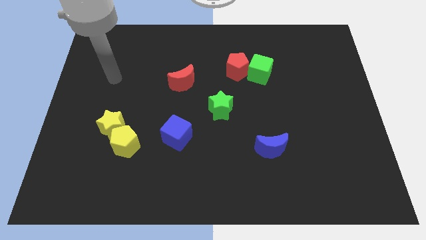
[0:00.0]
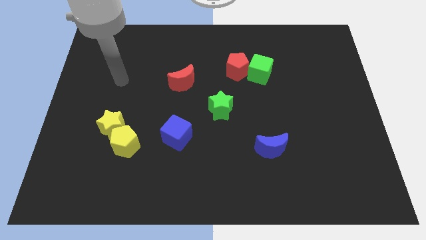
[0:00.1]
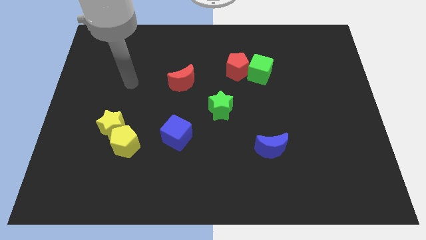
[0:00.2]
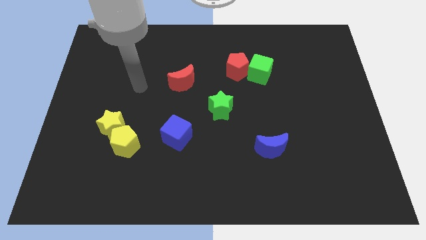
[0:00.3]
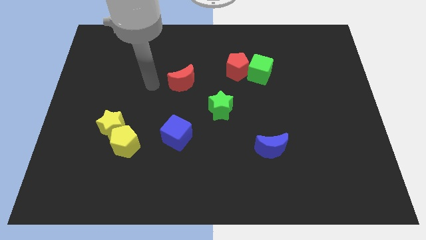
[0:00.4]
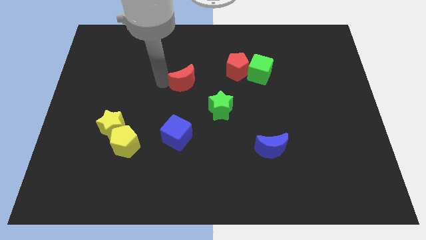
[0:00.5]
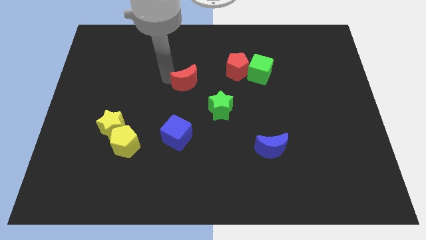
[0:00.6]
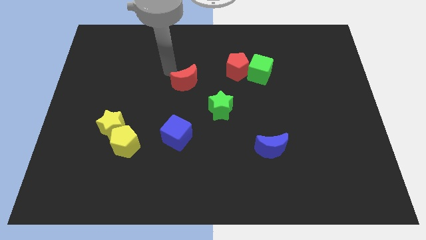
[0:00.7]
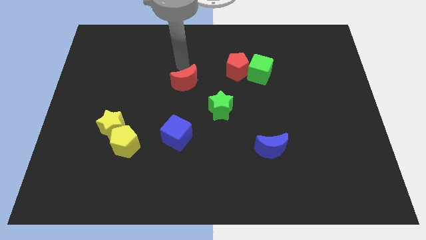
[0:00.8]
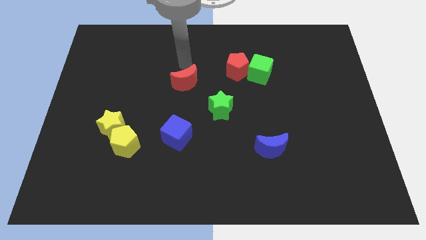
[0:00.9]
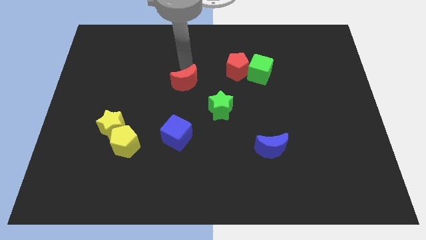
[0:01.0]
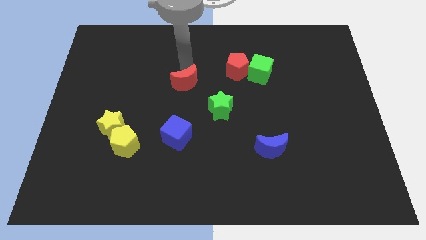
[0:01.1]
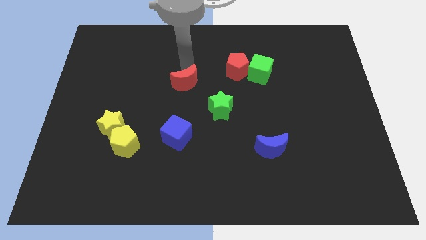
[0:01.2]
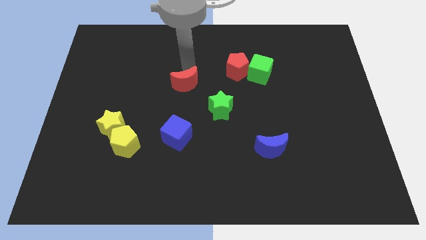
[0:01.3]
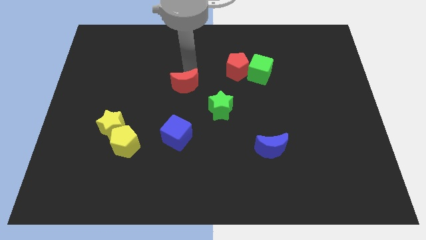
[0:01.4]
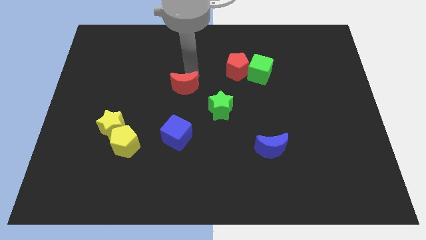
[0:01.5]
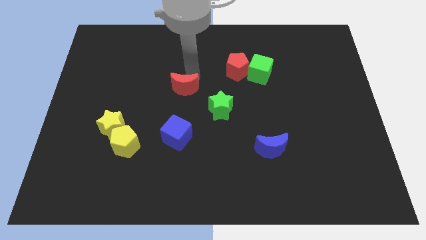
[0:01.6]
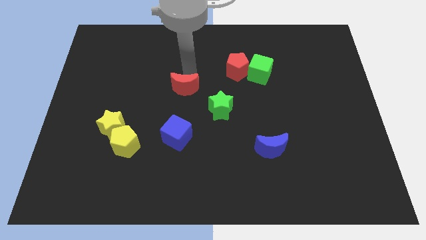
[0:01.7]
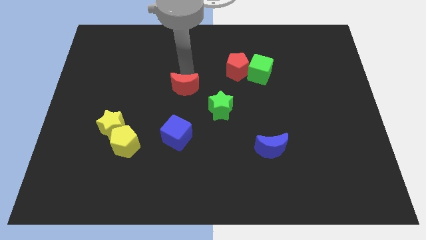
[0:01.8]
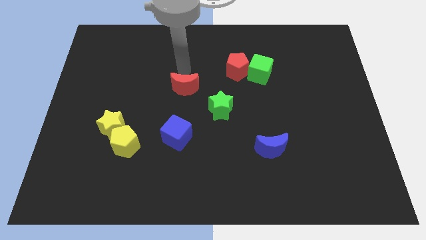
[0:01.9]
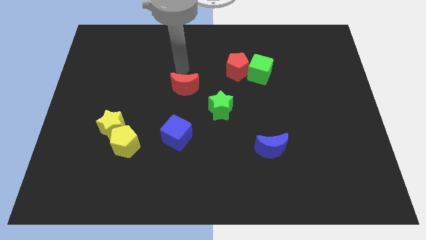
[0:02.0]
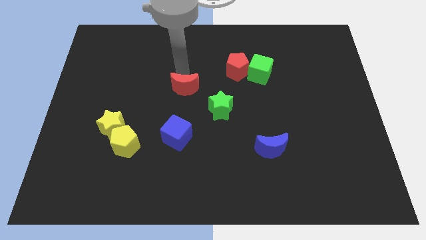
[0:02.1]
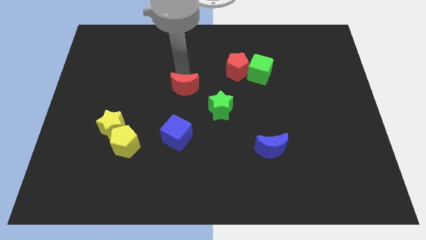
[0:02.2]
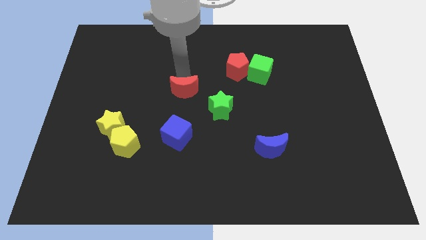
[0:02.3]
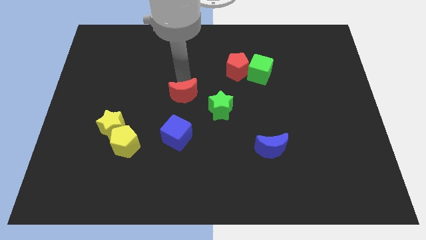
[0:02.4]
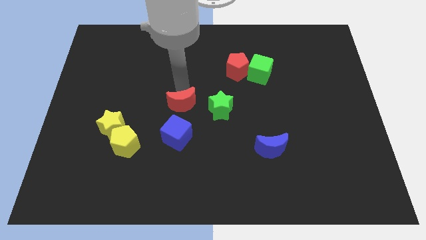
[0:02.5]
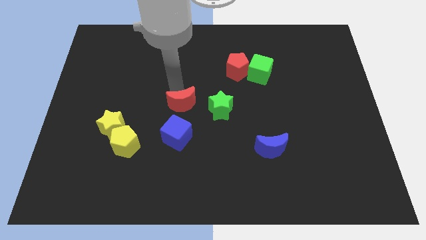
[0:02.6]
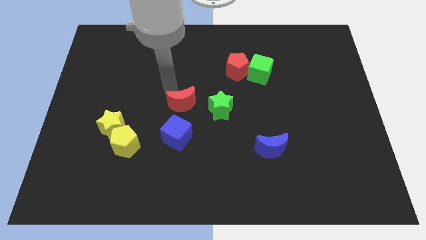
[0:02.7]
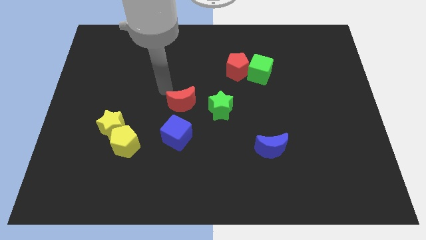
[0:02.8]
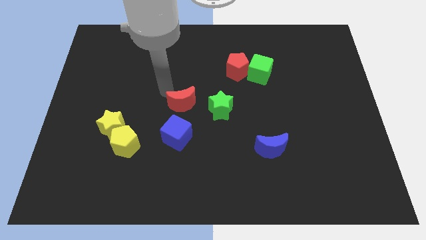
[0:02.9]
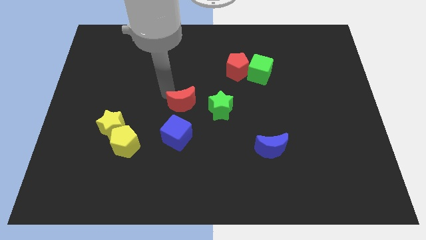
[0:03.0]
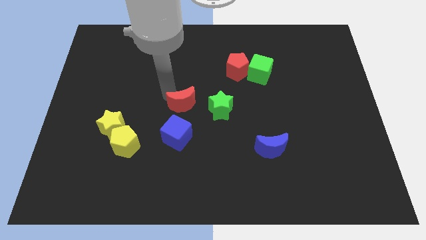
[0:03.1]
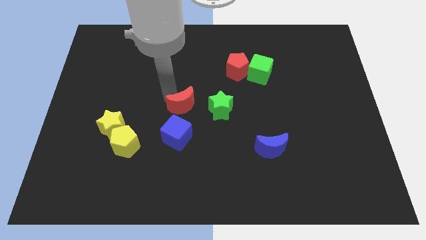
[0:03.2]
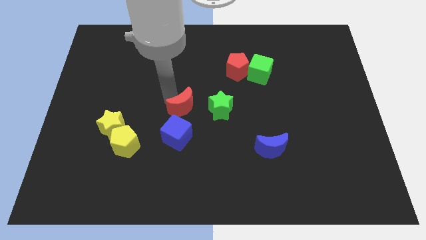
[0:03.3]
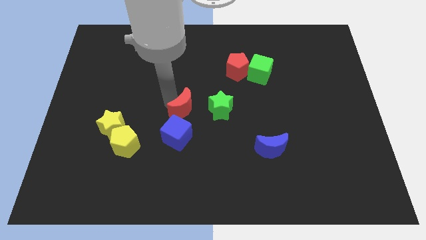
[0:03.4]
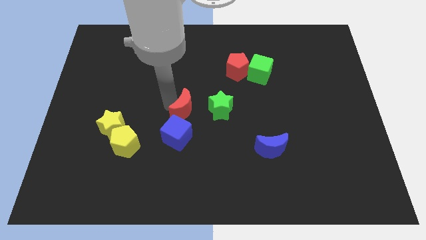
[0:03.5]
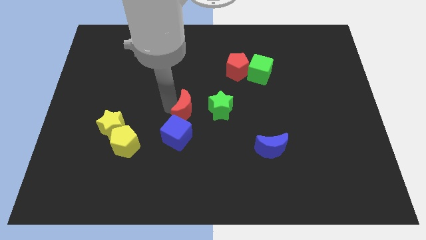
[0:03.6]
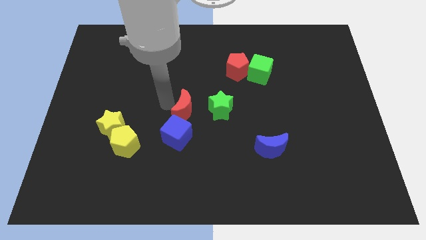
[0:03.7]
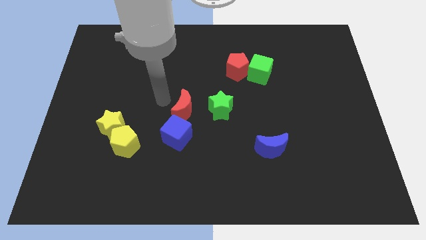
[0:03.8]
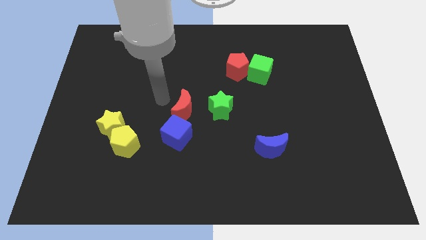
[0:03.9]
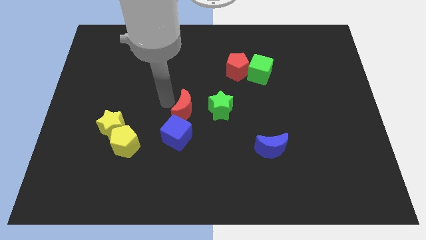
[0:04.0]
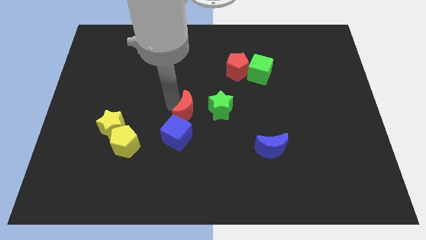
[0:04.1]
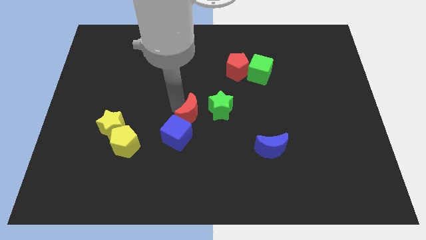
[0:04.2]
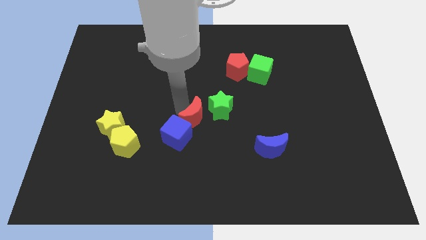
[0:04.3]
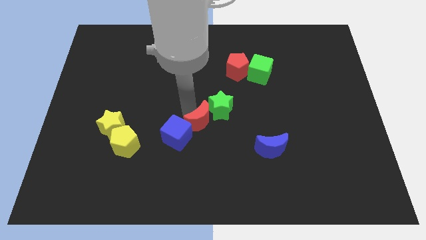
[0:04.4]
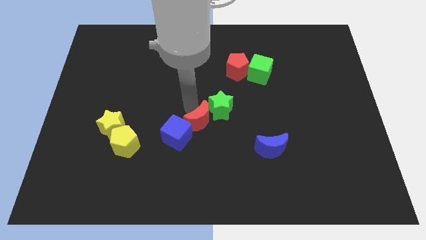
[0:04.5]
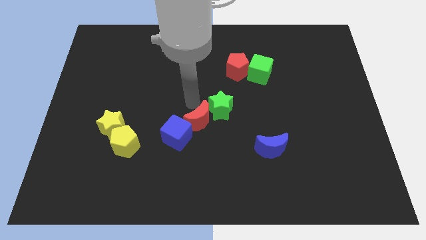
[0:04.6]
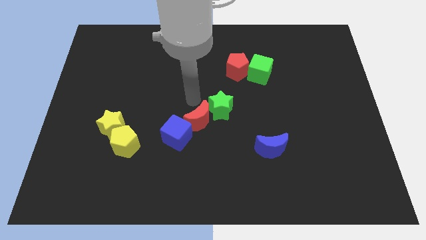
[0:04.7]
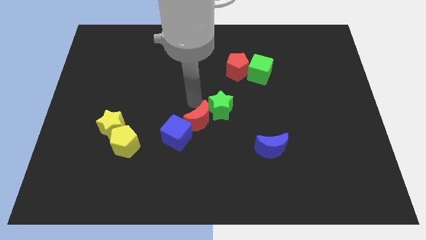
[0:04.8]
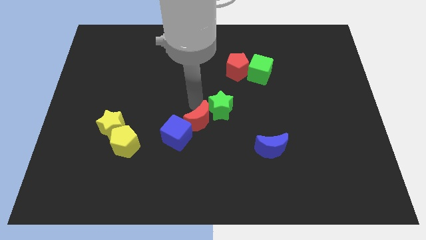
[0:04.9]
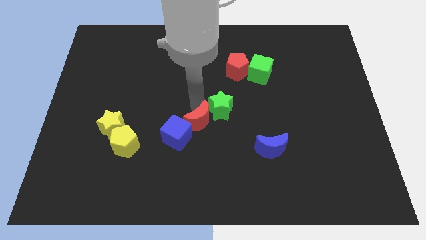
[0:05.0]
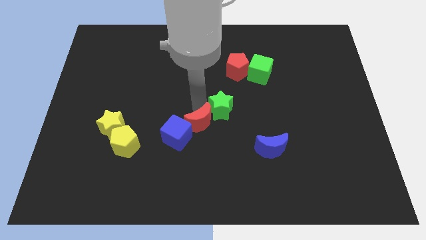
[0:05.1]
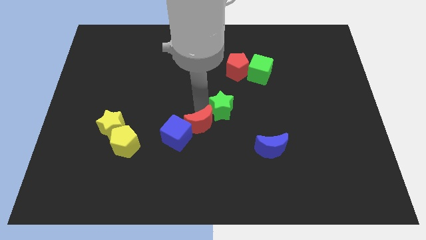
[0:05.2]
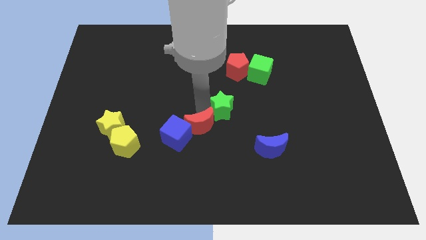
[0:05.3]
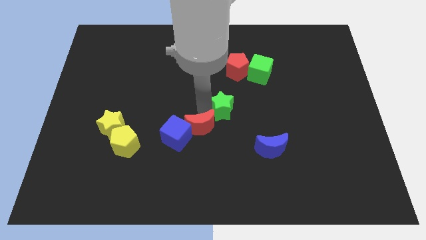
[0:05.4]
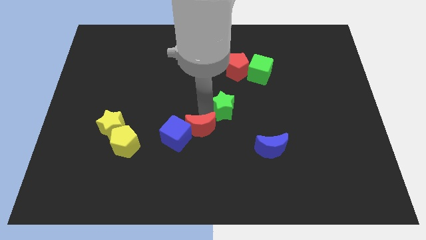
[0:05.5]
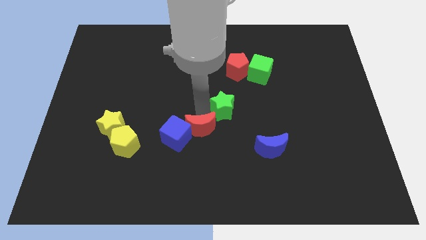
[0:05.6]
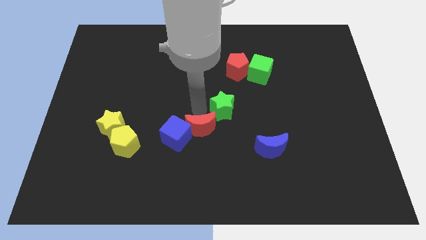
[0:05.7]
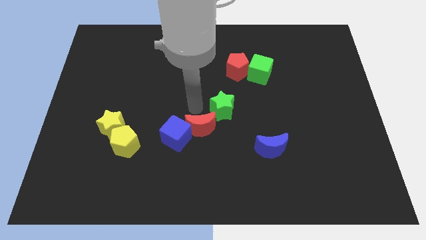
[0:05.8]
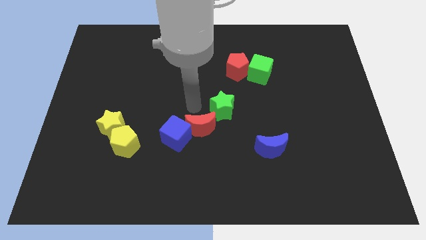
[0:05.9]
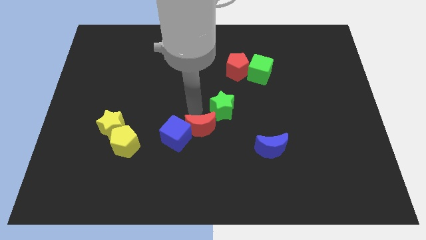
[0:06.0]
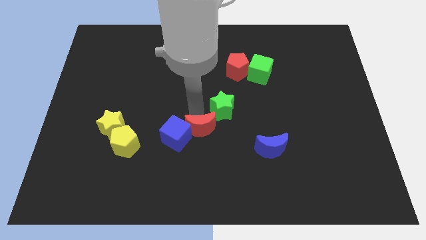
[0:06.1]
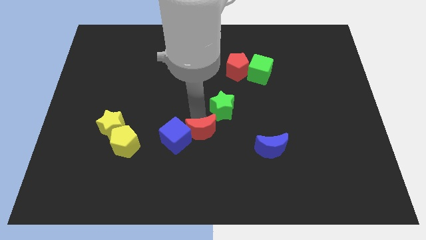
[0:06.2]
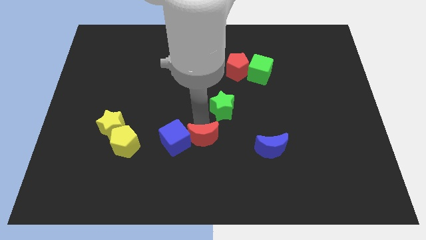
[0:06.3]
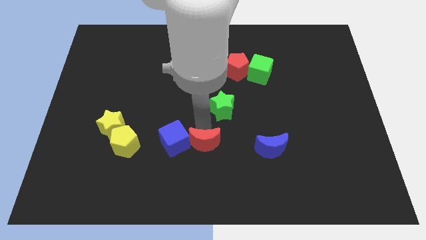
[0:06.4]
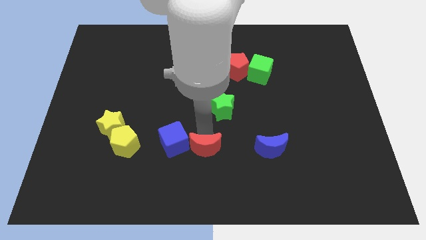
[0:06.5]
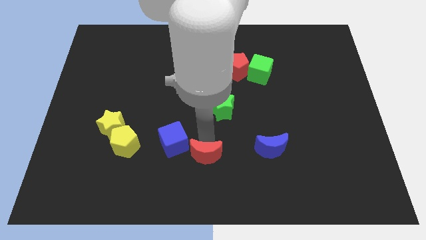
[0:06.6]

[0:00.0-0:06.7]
move the red moon to the bottom side

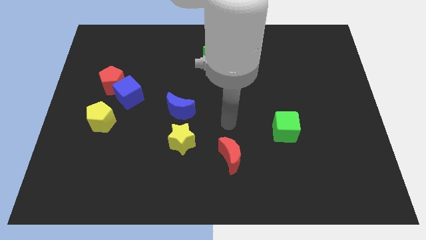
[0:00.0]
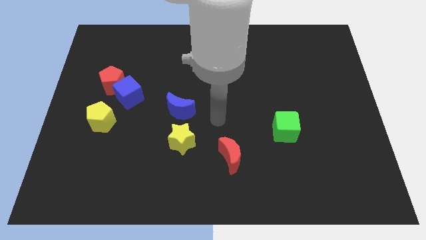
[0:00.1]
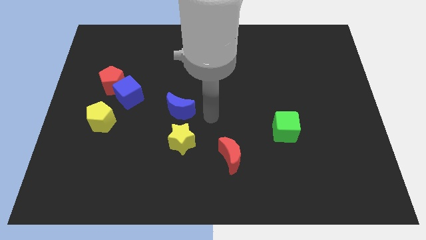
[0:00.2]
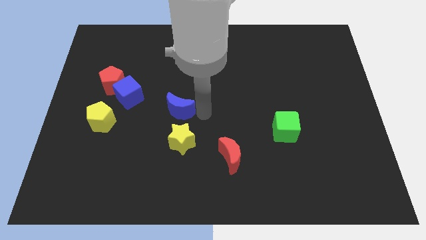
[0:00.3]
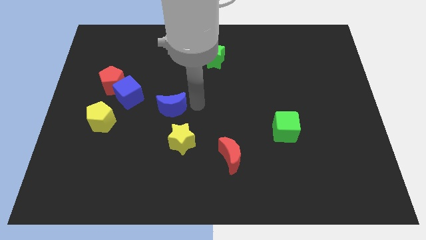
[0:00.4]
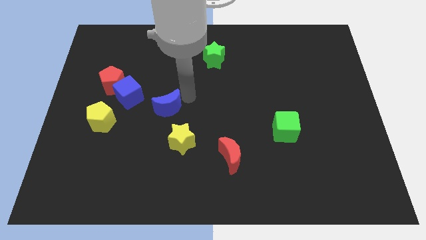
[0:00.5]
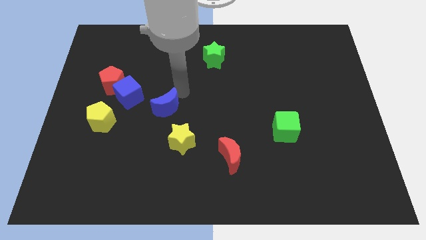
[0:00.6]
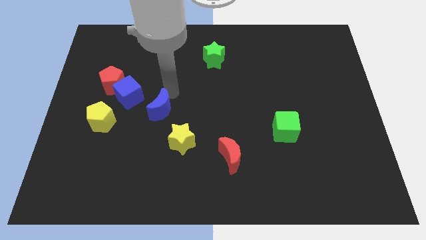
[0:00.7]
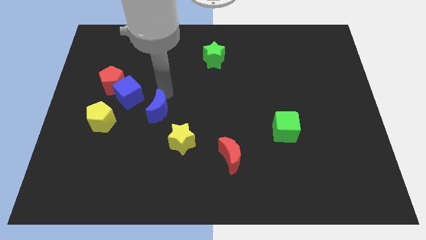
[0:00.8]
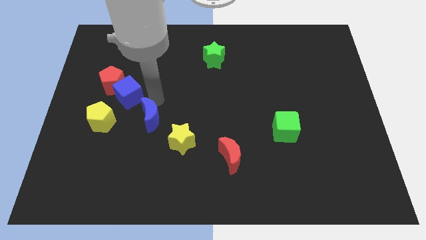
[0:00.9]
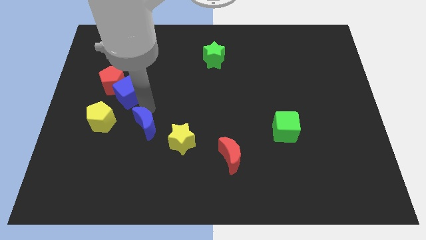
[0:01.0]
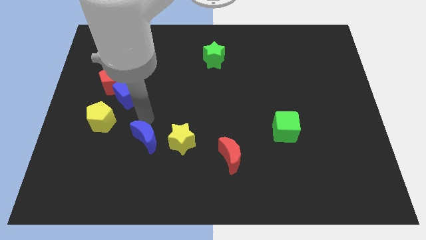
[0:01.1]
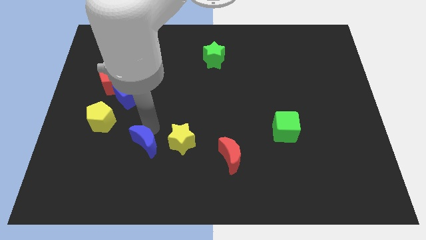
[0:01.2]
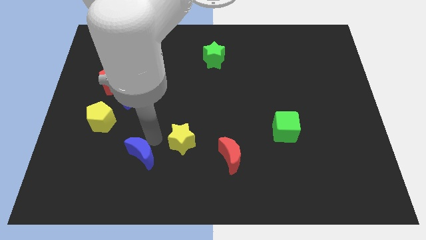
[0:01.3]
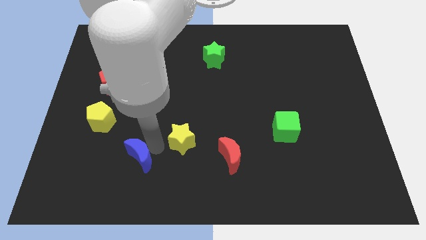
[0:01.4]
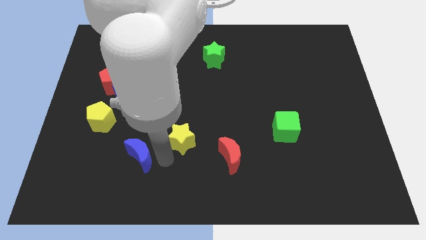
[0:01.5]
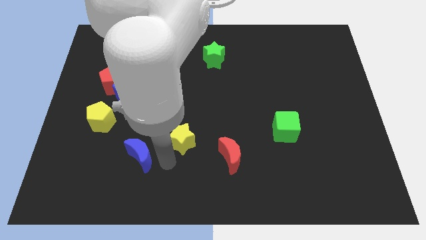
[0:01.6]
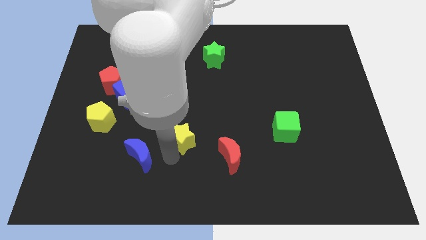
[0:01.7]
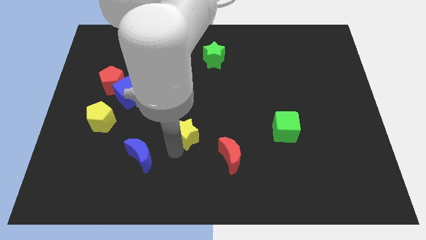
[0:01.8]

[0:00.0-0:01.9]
slide the yellow star to the center of the board
